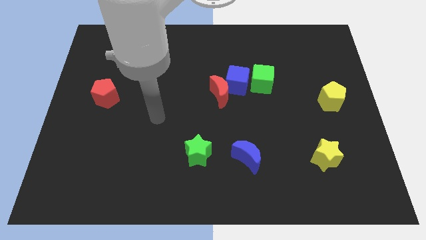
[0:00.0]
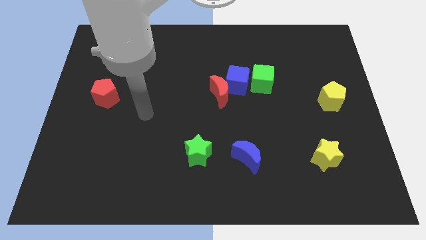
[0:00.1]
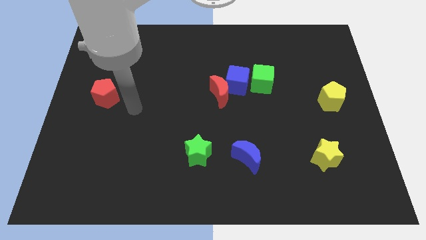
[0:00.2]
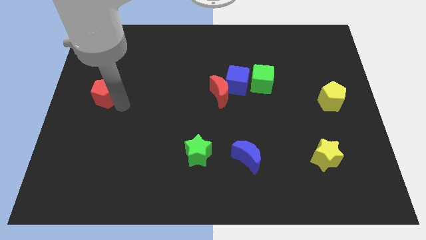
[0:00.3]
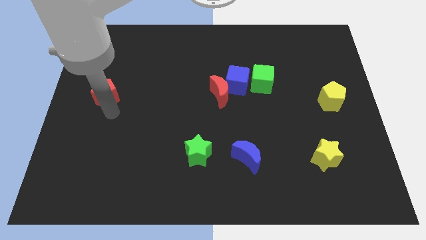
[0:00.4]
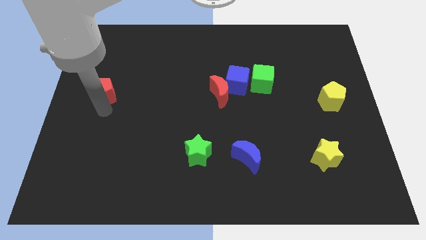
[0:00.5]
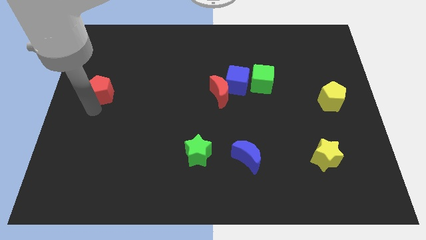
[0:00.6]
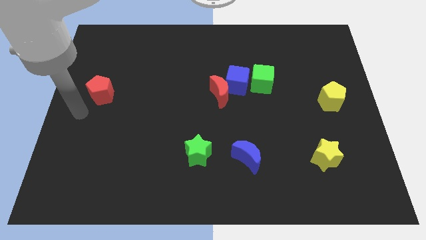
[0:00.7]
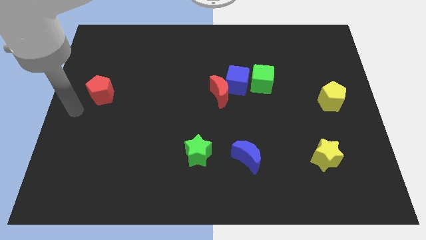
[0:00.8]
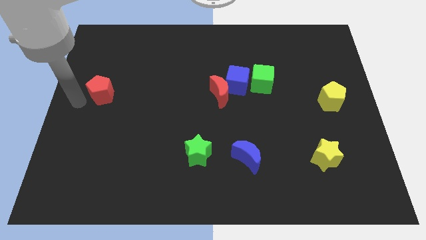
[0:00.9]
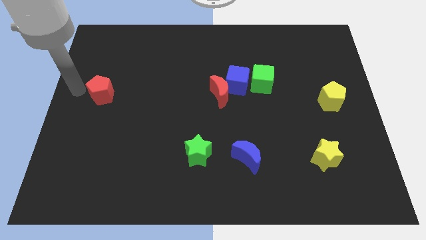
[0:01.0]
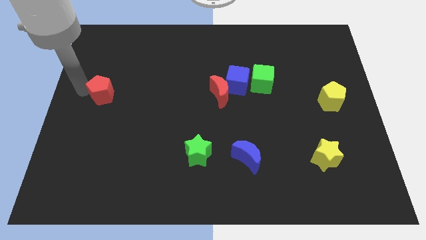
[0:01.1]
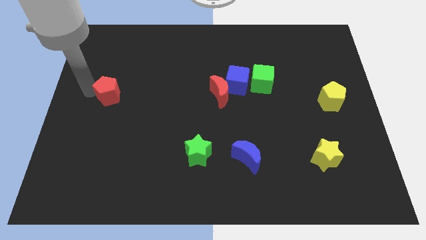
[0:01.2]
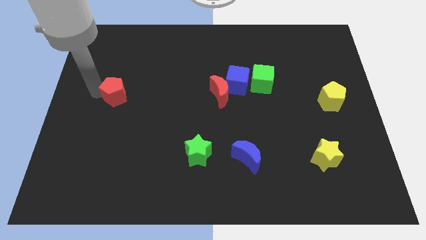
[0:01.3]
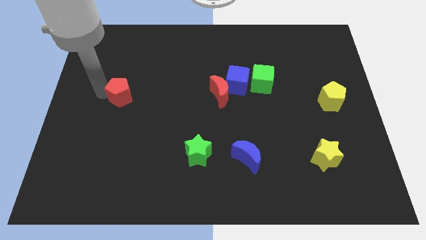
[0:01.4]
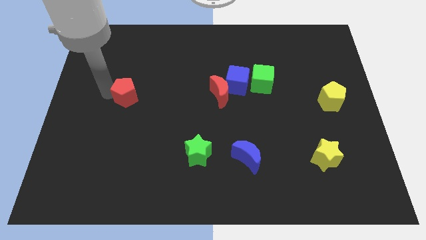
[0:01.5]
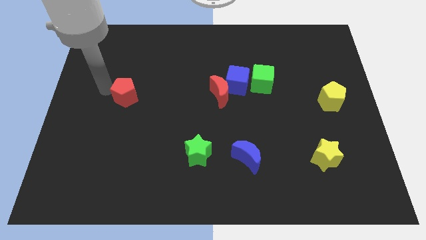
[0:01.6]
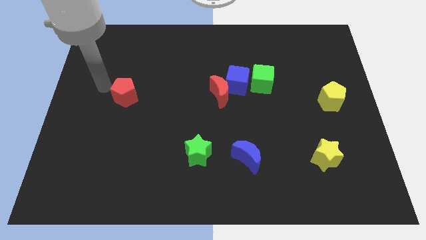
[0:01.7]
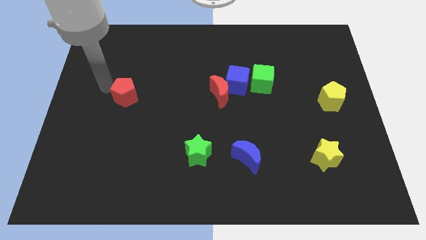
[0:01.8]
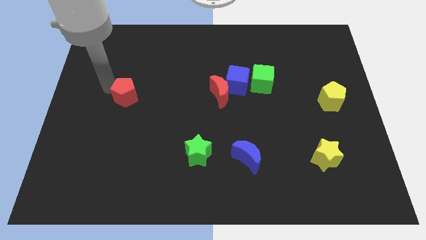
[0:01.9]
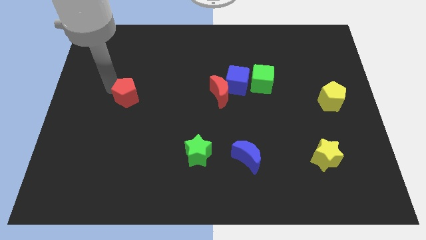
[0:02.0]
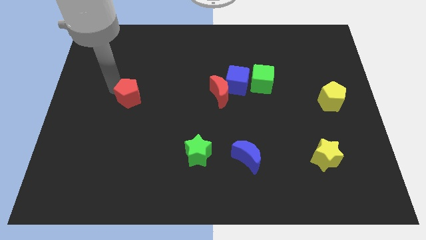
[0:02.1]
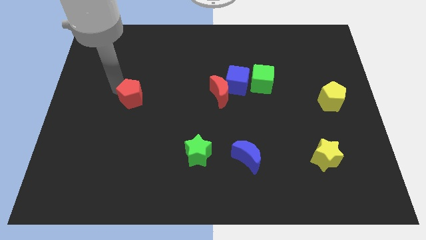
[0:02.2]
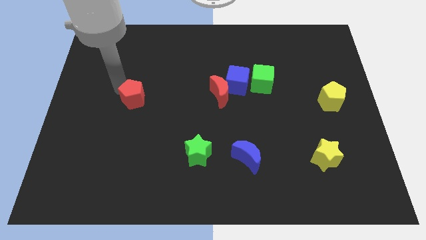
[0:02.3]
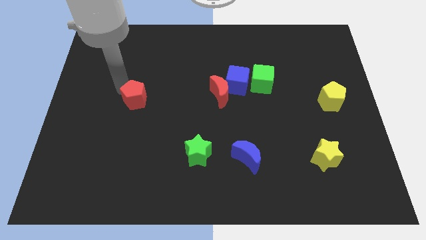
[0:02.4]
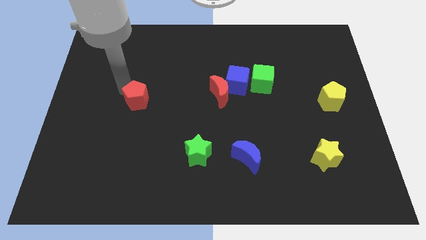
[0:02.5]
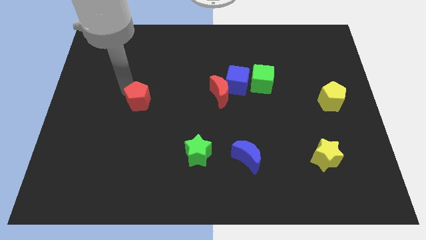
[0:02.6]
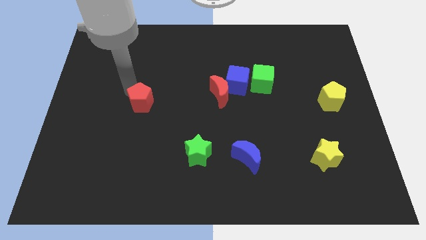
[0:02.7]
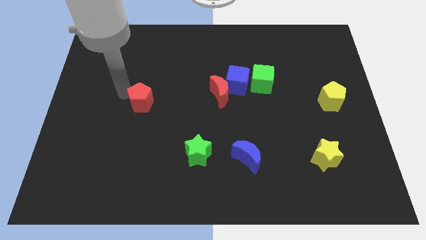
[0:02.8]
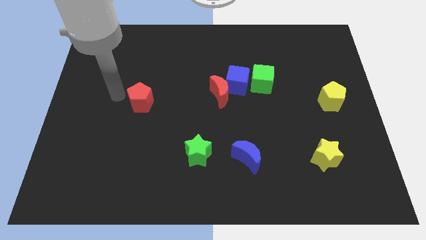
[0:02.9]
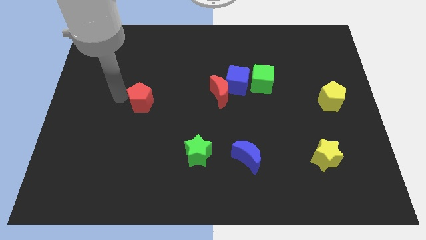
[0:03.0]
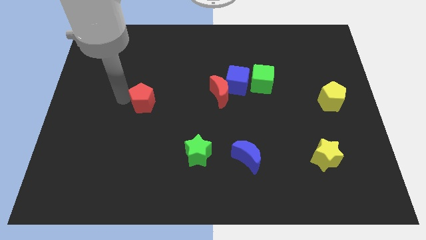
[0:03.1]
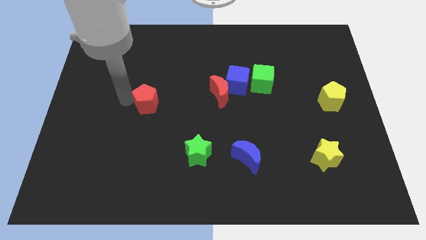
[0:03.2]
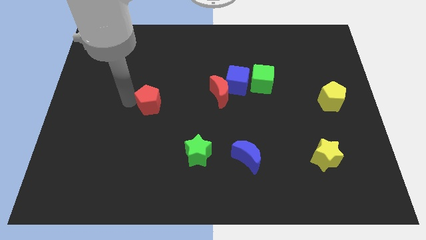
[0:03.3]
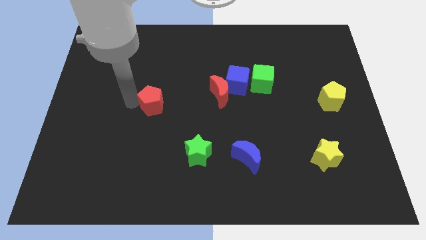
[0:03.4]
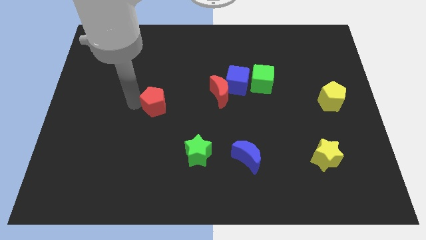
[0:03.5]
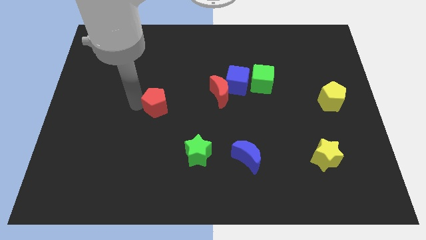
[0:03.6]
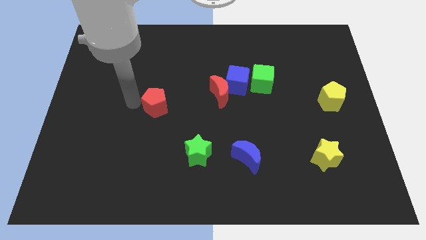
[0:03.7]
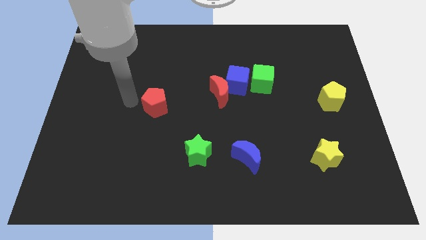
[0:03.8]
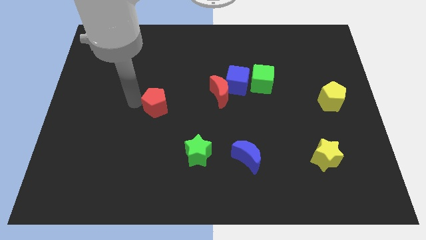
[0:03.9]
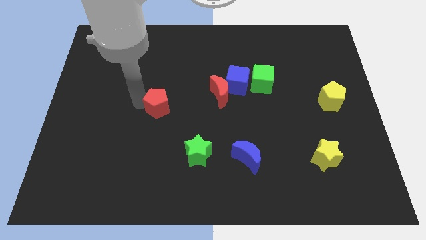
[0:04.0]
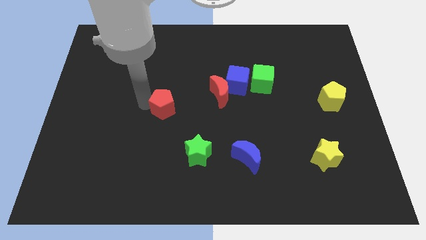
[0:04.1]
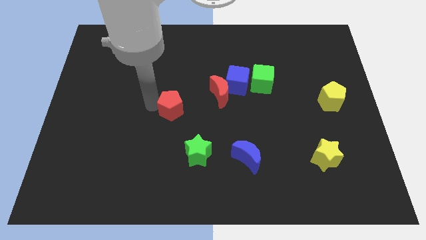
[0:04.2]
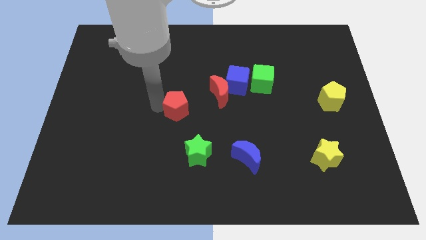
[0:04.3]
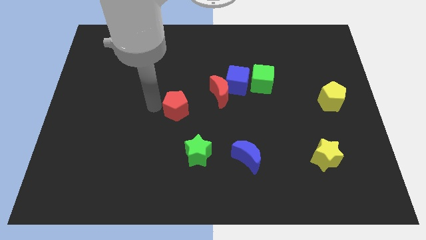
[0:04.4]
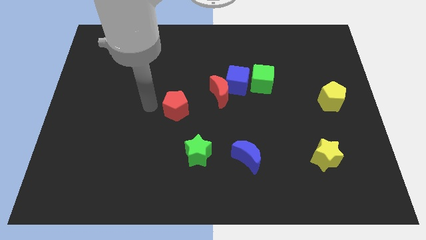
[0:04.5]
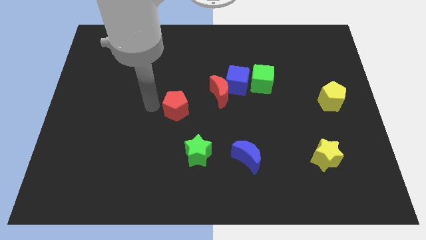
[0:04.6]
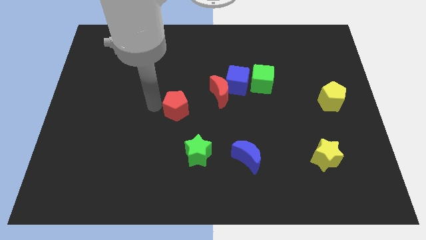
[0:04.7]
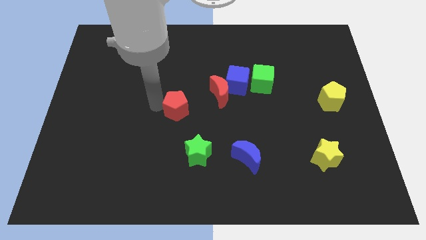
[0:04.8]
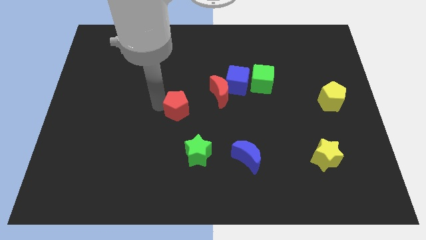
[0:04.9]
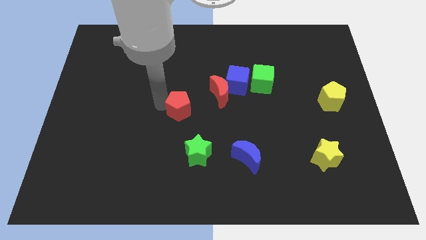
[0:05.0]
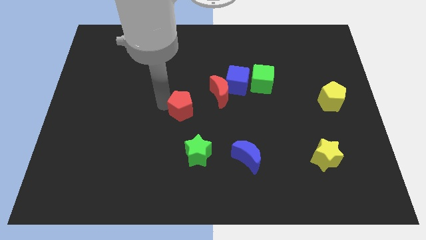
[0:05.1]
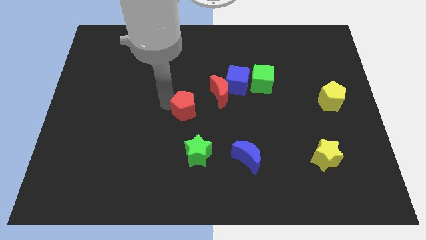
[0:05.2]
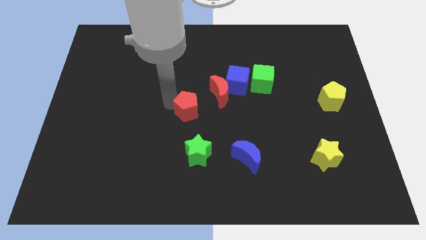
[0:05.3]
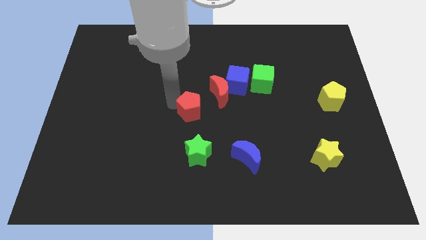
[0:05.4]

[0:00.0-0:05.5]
slide the red pentagon right

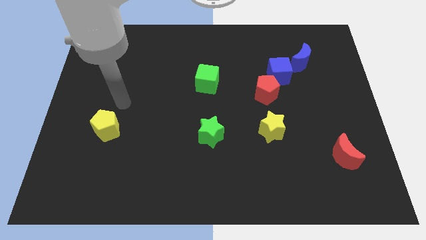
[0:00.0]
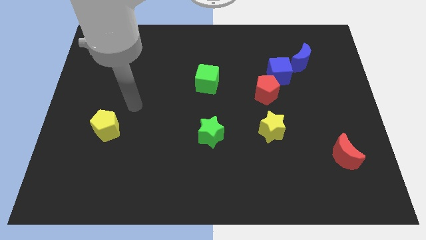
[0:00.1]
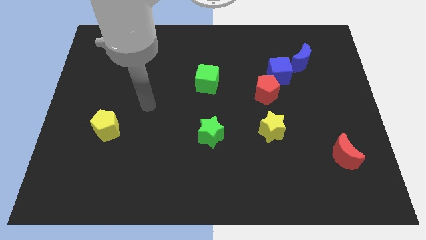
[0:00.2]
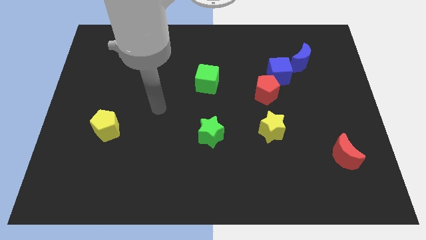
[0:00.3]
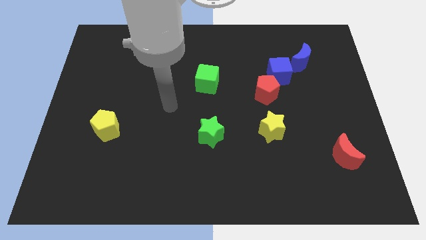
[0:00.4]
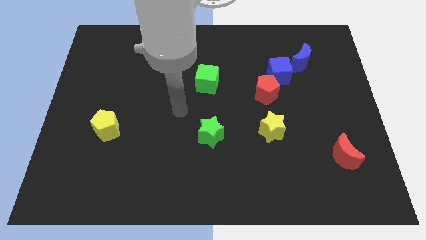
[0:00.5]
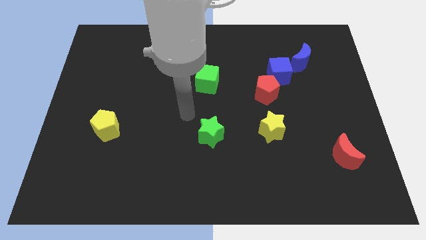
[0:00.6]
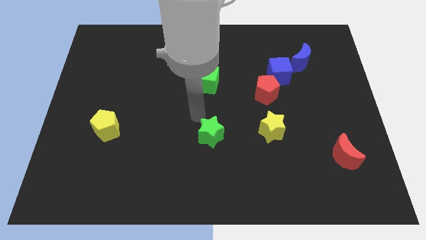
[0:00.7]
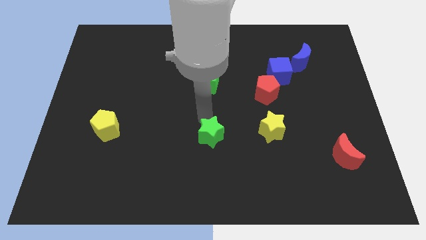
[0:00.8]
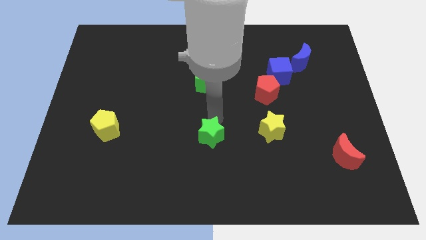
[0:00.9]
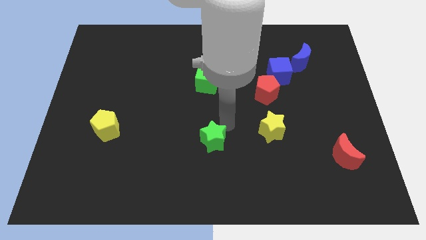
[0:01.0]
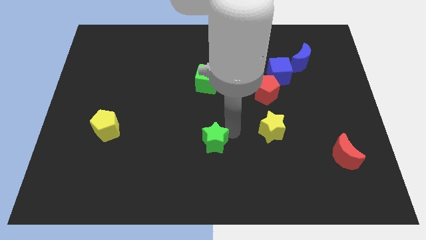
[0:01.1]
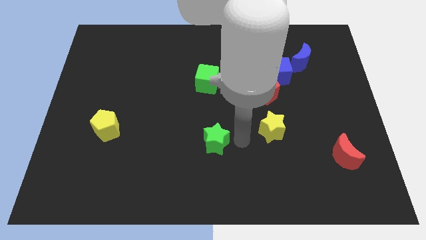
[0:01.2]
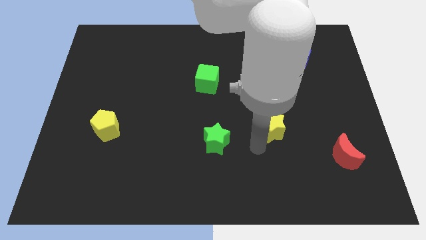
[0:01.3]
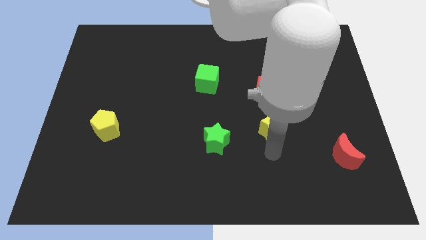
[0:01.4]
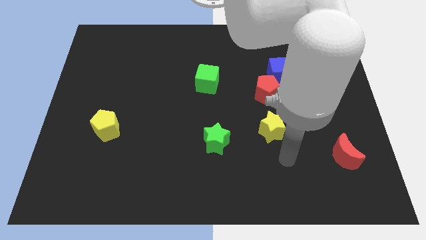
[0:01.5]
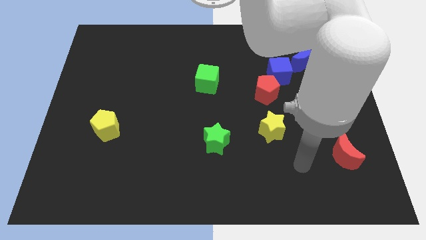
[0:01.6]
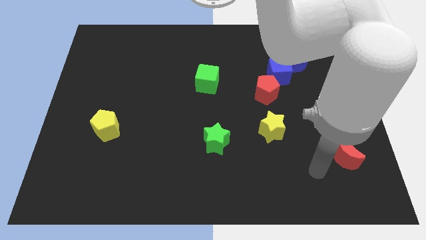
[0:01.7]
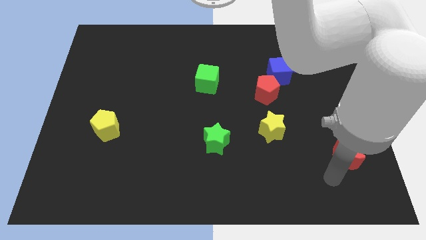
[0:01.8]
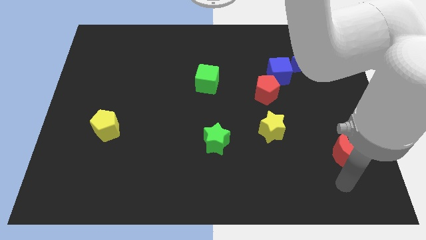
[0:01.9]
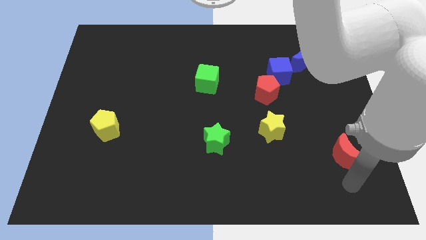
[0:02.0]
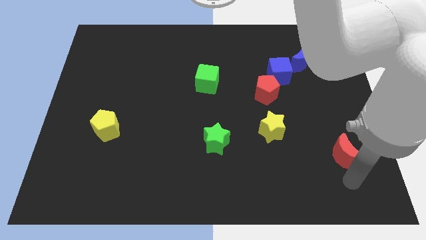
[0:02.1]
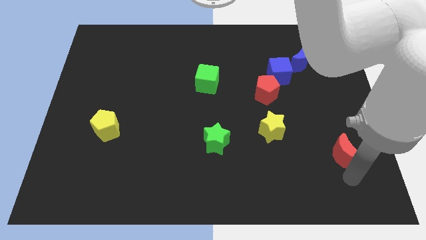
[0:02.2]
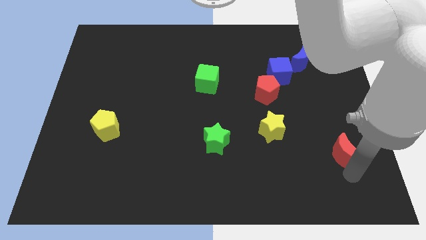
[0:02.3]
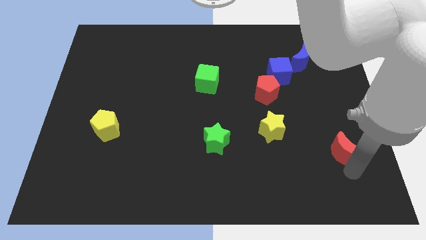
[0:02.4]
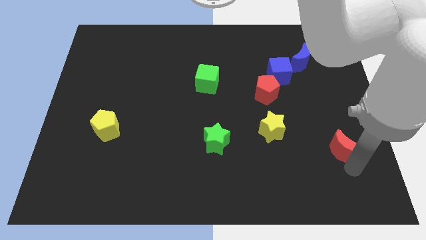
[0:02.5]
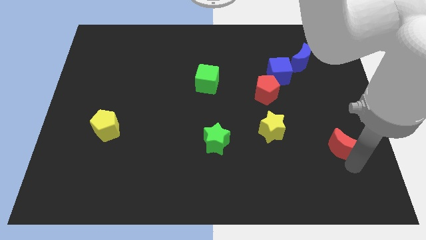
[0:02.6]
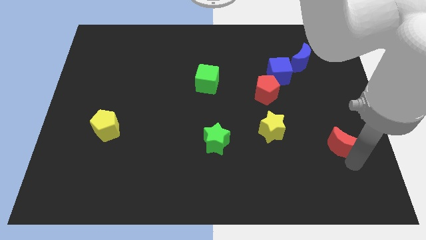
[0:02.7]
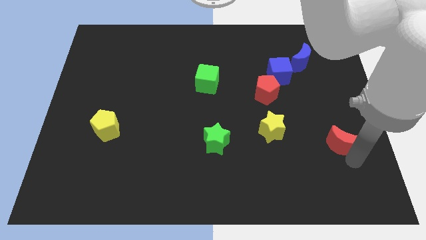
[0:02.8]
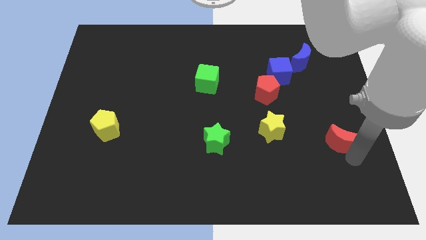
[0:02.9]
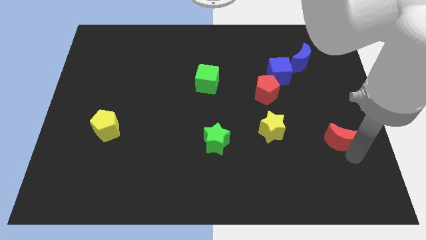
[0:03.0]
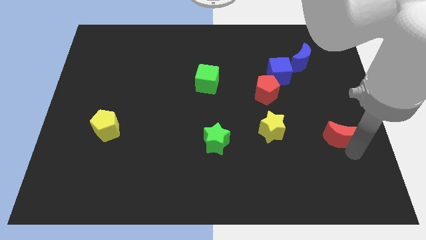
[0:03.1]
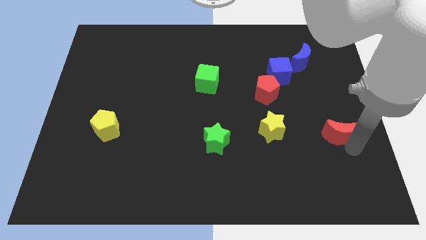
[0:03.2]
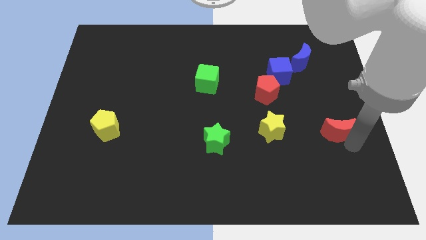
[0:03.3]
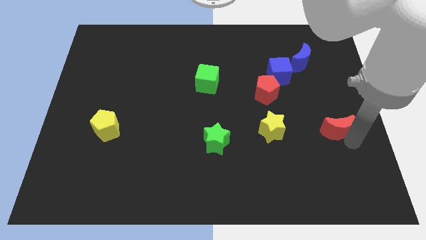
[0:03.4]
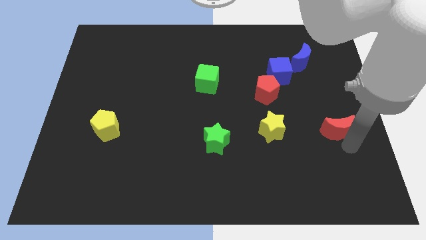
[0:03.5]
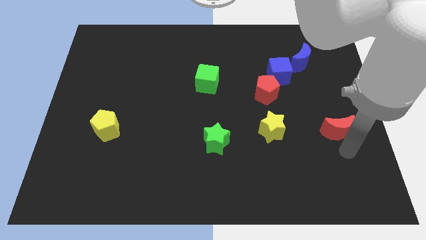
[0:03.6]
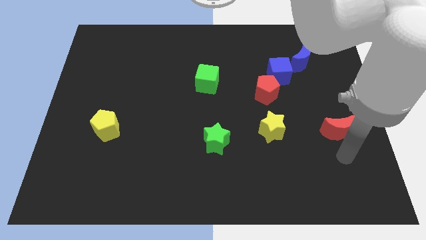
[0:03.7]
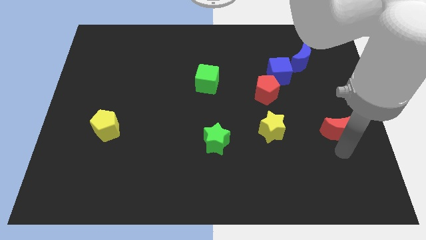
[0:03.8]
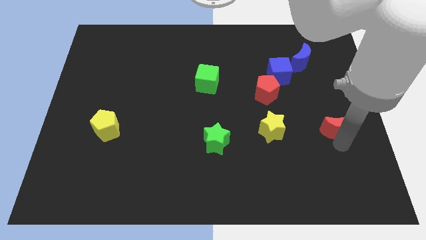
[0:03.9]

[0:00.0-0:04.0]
push the red moon a little bit upwards
